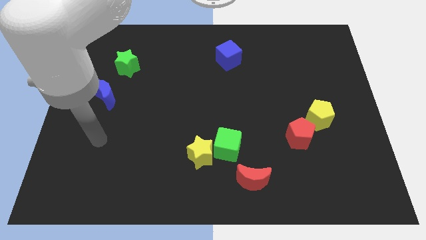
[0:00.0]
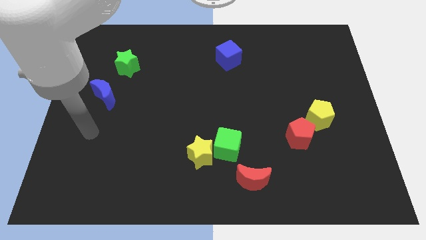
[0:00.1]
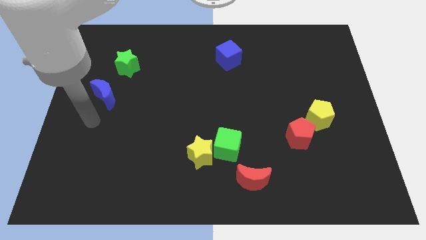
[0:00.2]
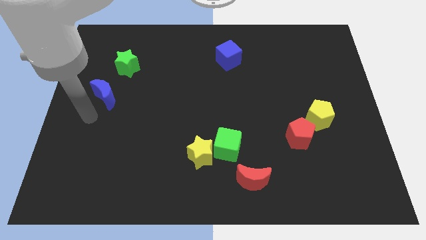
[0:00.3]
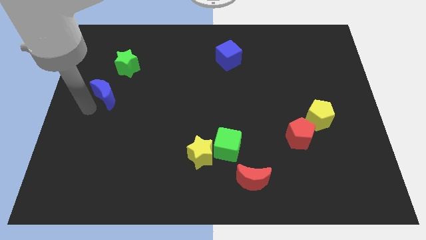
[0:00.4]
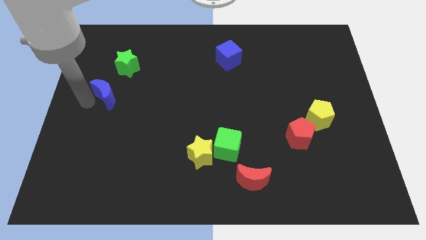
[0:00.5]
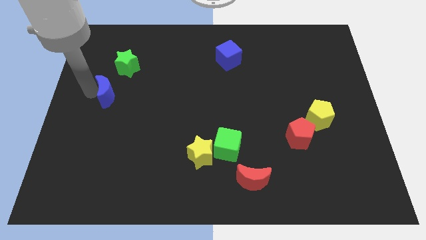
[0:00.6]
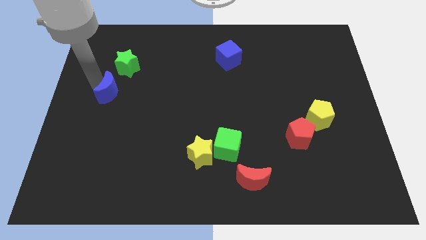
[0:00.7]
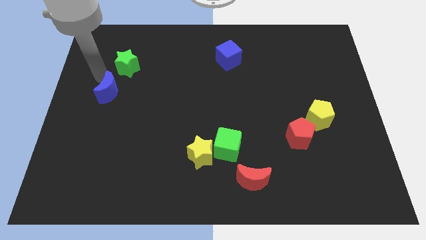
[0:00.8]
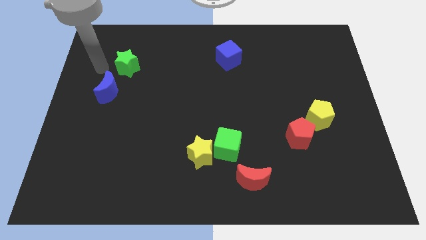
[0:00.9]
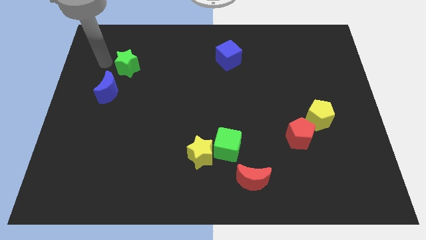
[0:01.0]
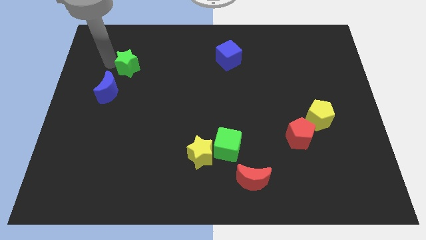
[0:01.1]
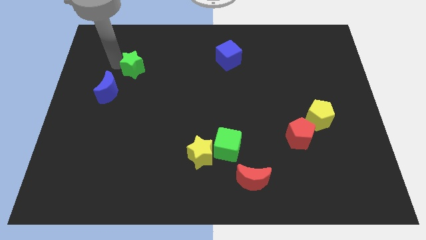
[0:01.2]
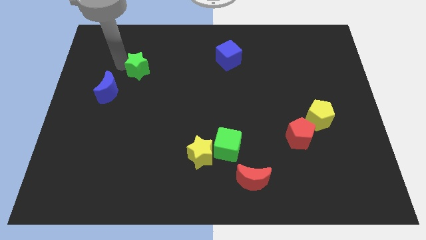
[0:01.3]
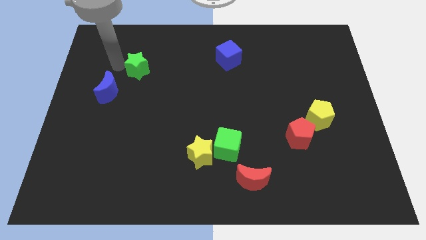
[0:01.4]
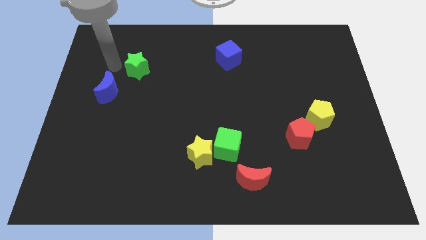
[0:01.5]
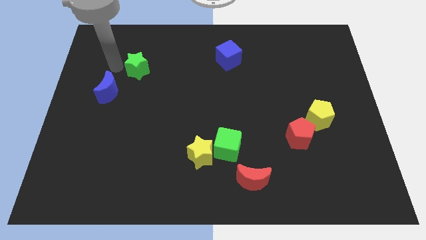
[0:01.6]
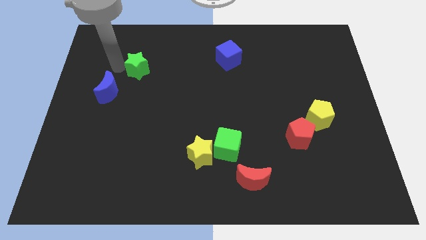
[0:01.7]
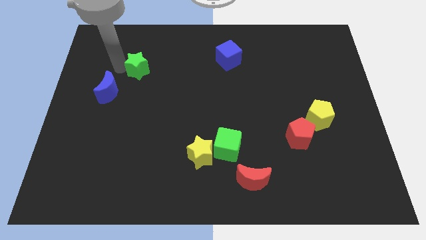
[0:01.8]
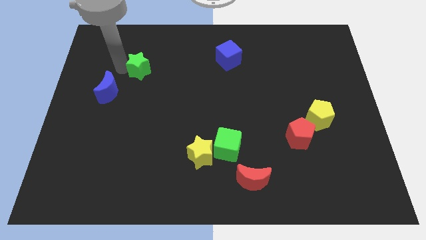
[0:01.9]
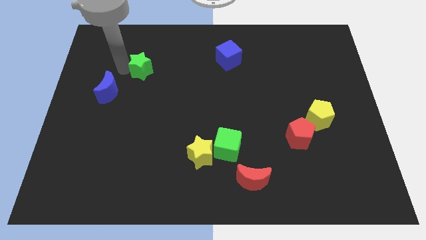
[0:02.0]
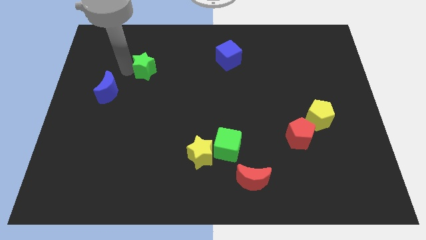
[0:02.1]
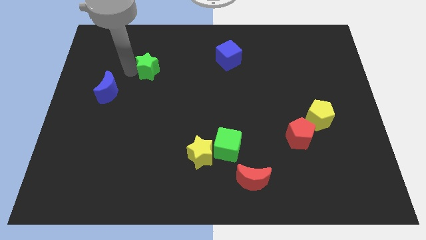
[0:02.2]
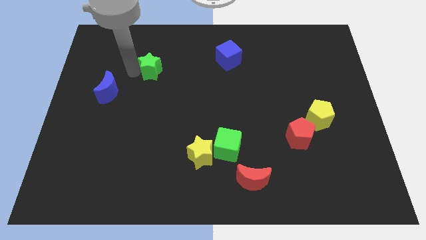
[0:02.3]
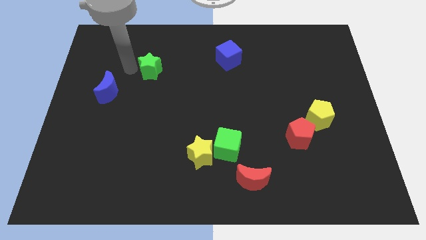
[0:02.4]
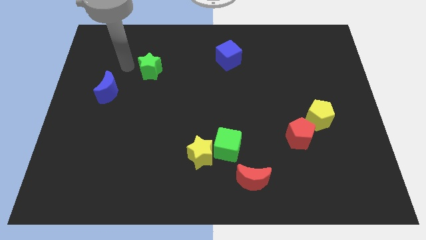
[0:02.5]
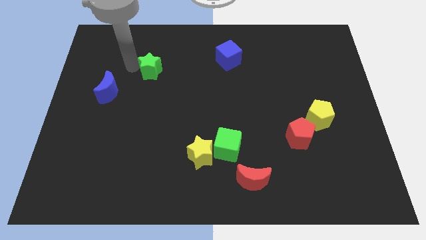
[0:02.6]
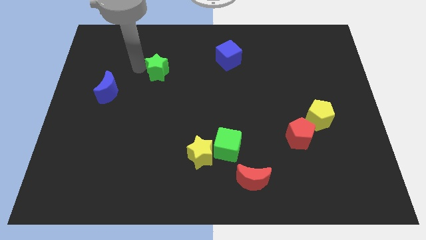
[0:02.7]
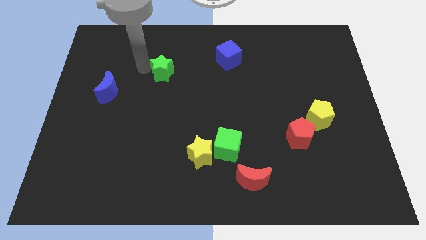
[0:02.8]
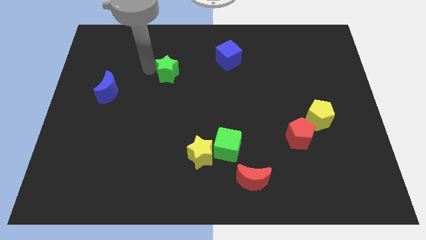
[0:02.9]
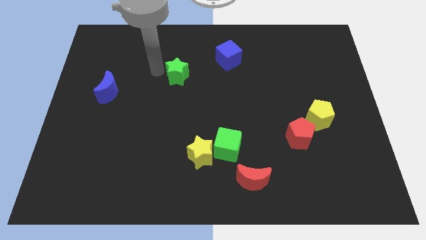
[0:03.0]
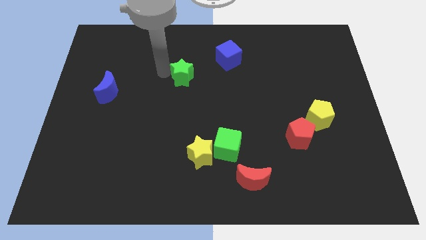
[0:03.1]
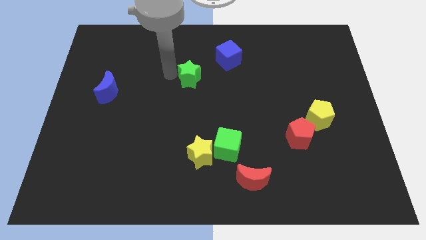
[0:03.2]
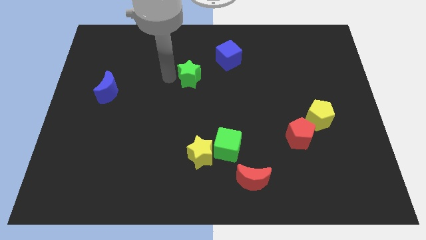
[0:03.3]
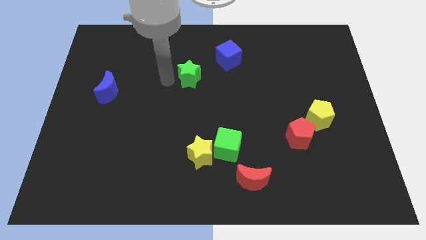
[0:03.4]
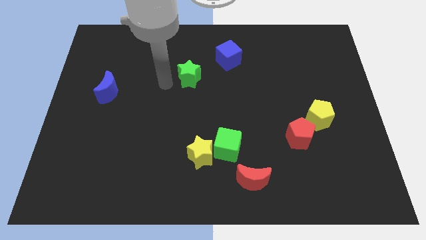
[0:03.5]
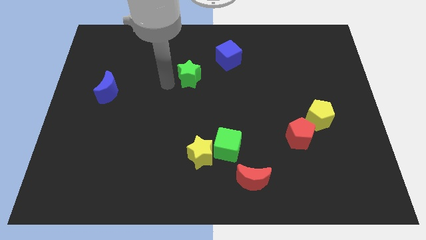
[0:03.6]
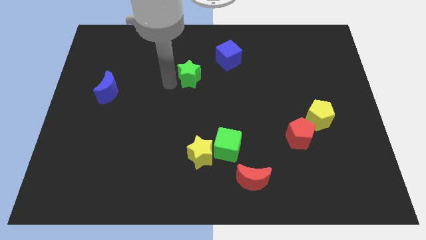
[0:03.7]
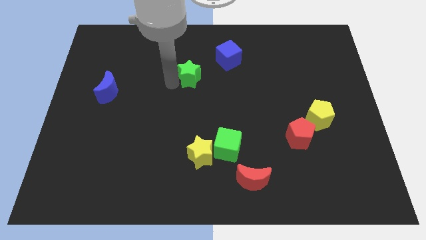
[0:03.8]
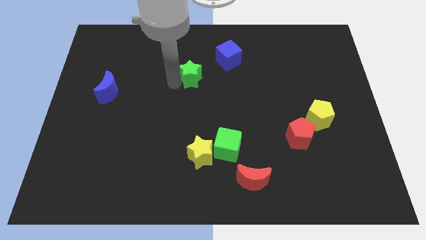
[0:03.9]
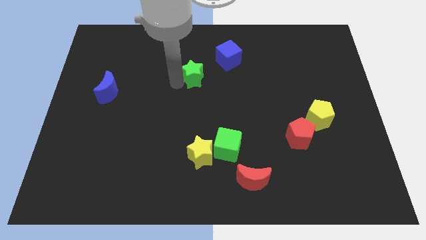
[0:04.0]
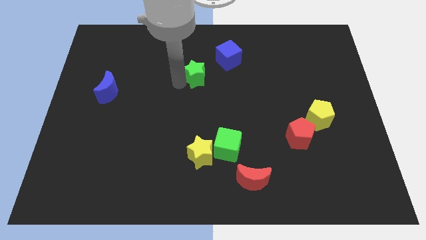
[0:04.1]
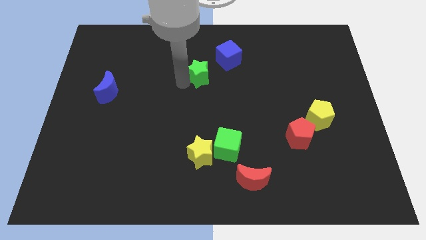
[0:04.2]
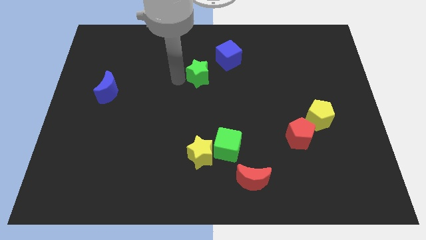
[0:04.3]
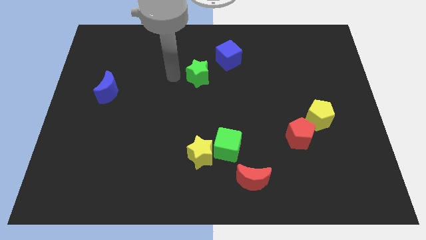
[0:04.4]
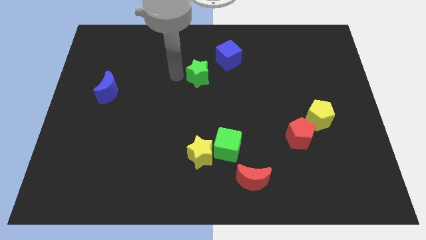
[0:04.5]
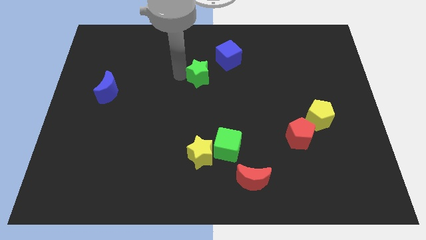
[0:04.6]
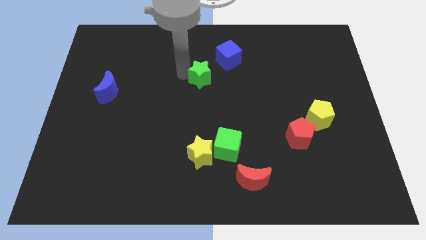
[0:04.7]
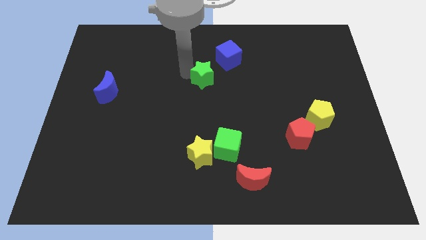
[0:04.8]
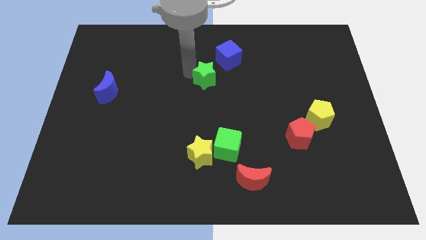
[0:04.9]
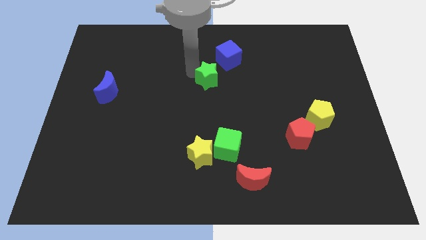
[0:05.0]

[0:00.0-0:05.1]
move the green star to the right

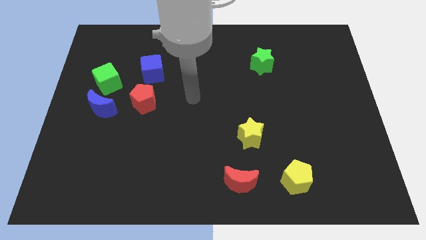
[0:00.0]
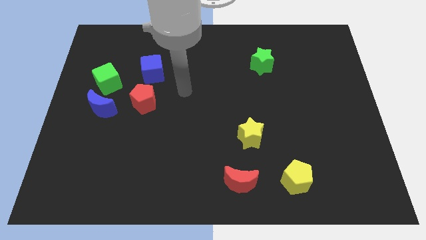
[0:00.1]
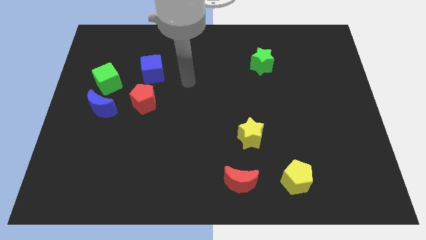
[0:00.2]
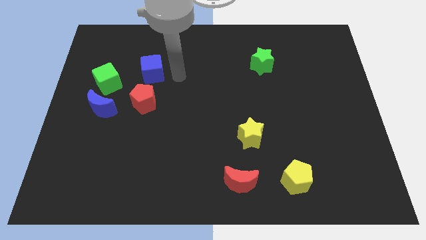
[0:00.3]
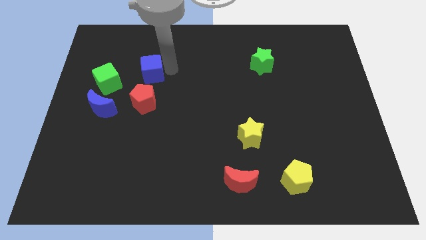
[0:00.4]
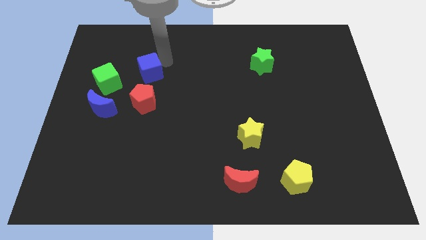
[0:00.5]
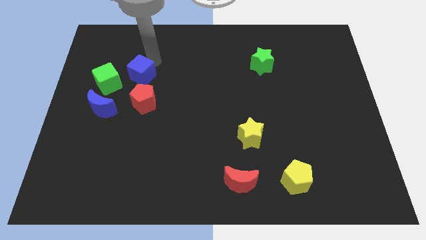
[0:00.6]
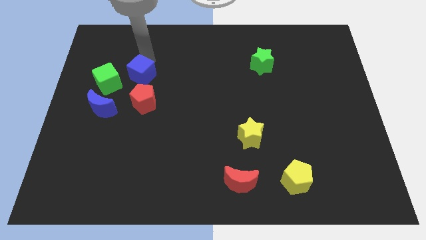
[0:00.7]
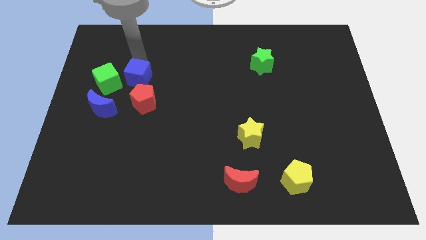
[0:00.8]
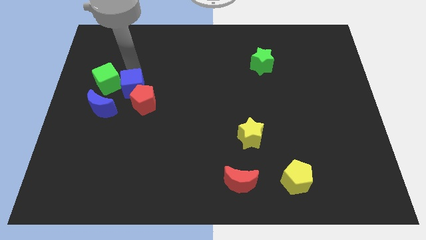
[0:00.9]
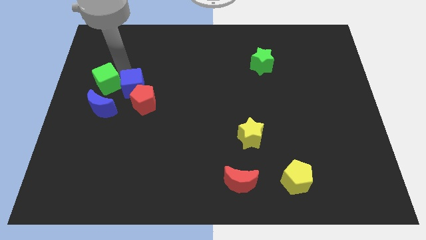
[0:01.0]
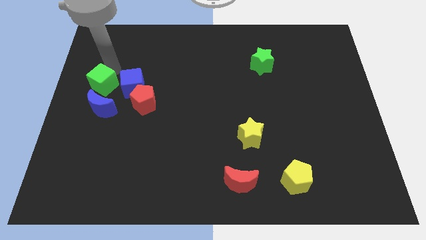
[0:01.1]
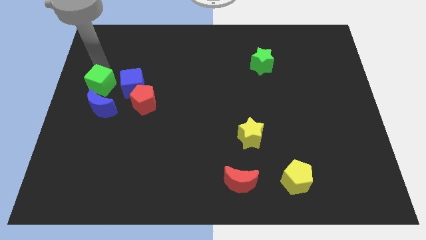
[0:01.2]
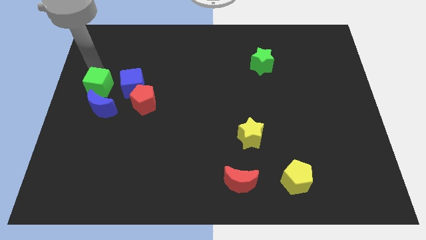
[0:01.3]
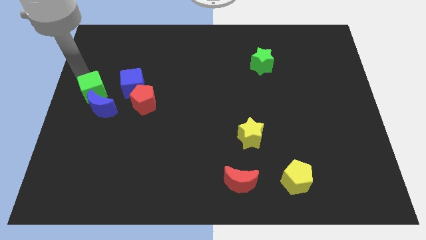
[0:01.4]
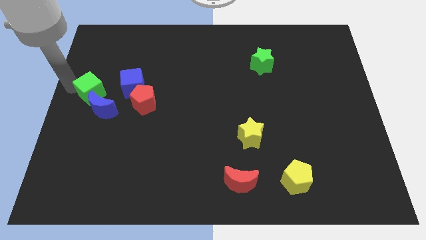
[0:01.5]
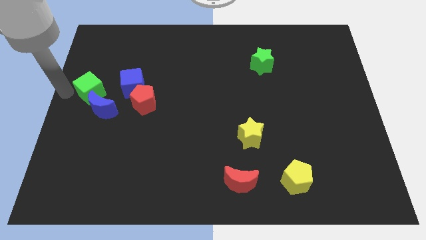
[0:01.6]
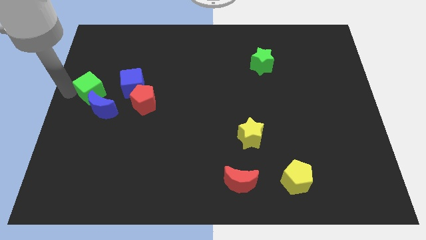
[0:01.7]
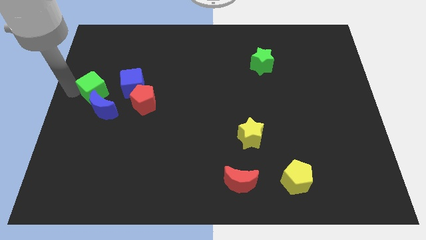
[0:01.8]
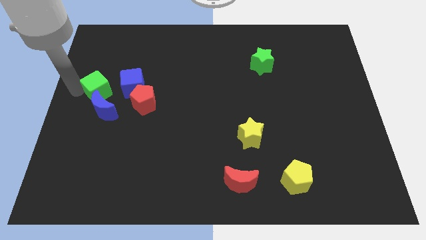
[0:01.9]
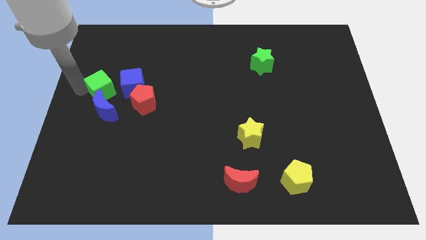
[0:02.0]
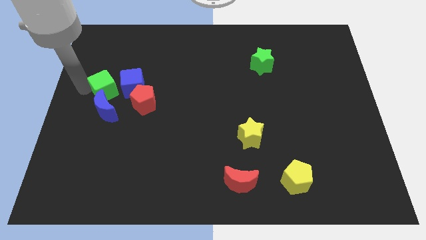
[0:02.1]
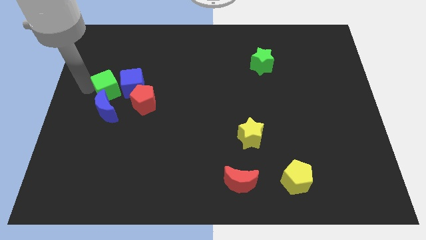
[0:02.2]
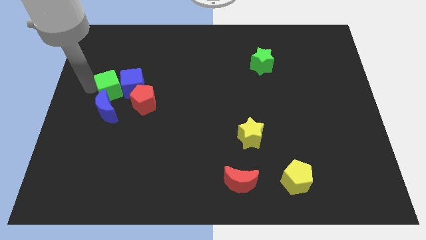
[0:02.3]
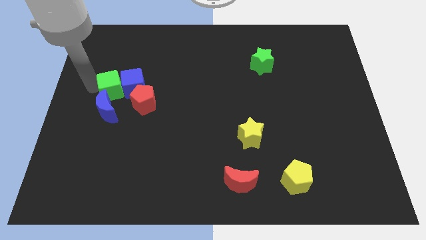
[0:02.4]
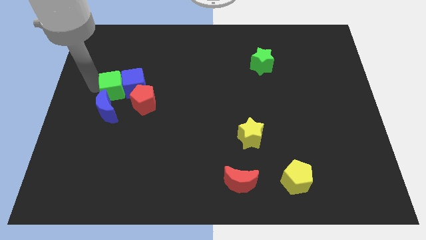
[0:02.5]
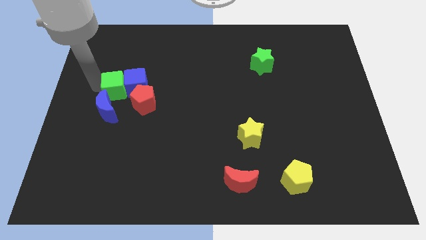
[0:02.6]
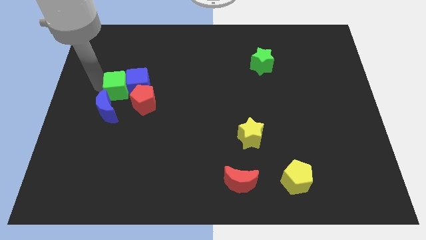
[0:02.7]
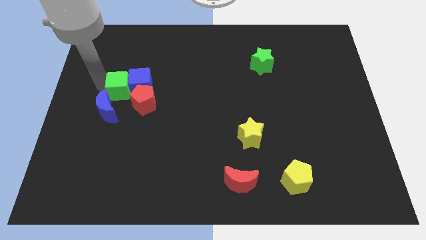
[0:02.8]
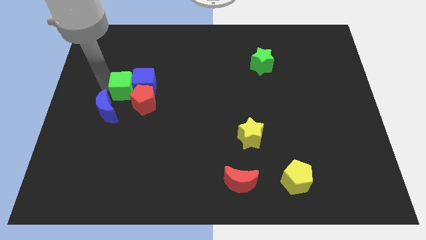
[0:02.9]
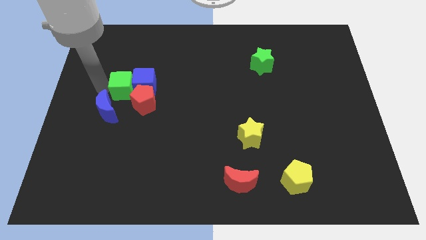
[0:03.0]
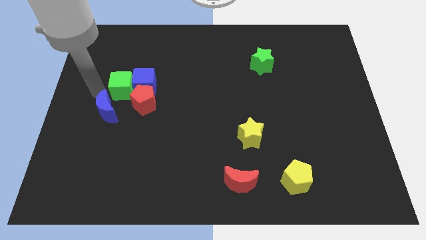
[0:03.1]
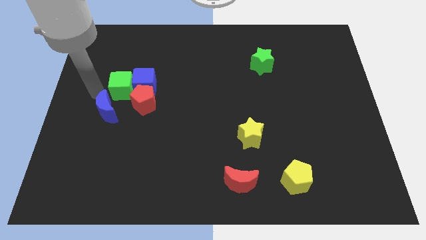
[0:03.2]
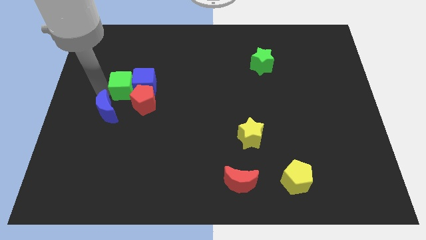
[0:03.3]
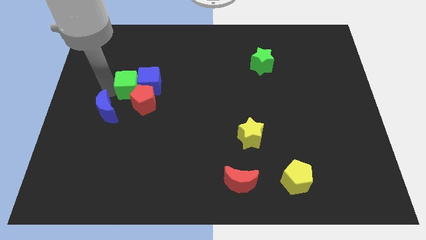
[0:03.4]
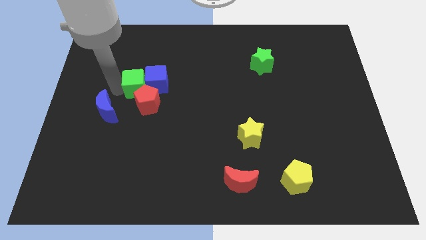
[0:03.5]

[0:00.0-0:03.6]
move the green cube to the right slightly
